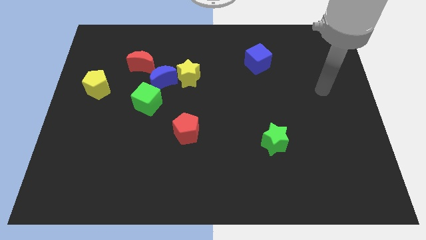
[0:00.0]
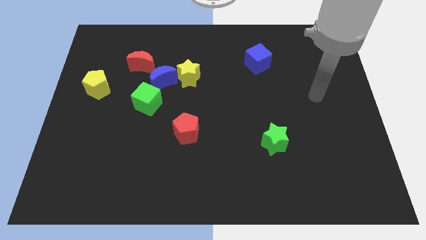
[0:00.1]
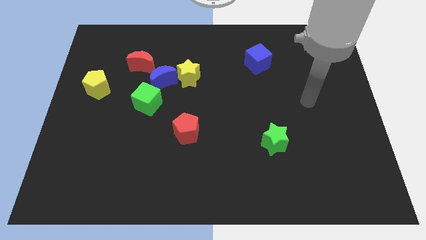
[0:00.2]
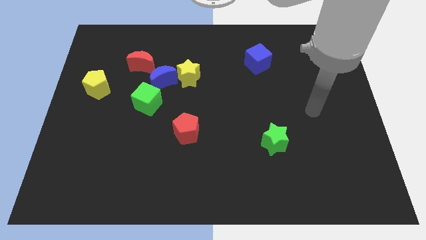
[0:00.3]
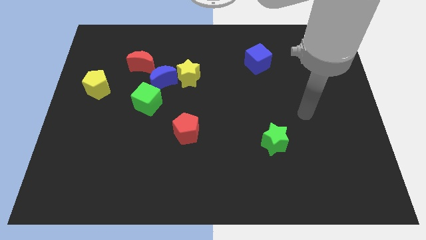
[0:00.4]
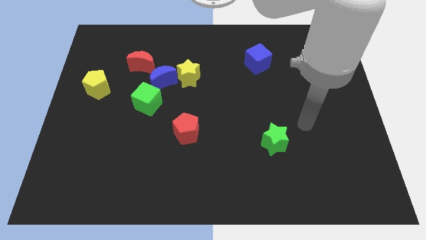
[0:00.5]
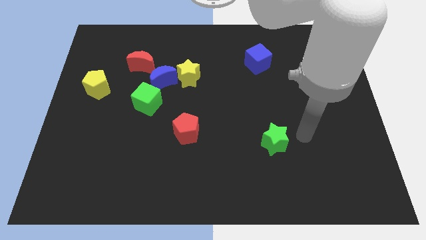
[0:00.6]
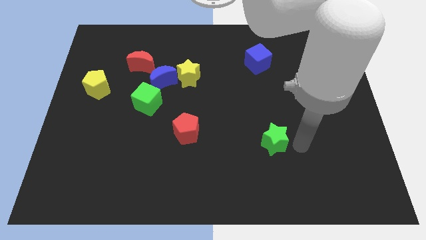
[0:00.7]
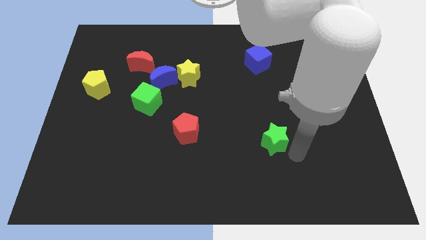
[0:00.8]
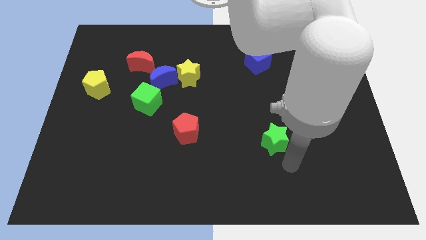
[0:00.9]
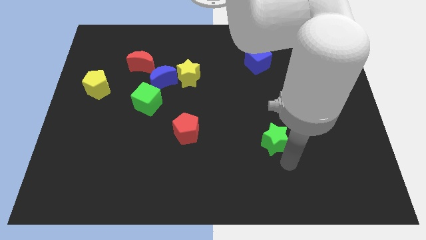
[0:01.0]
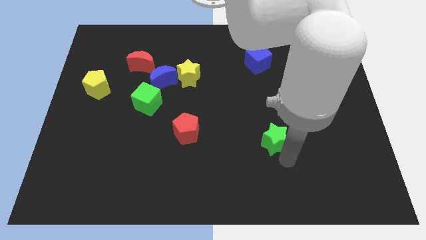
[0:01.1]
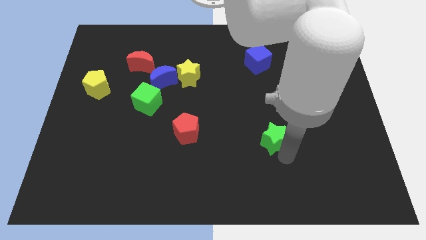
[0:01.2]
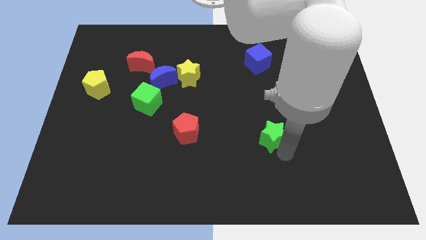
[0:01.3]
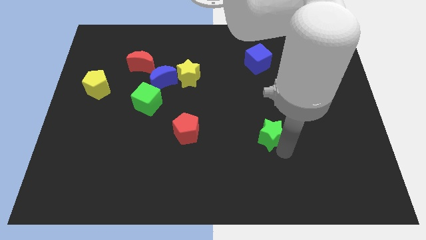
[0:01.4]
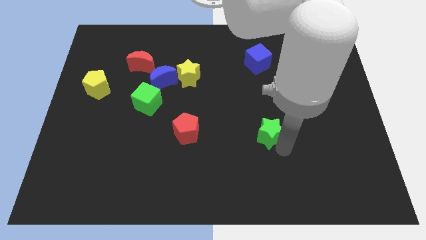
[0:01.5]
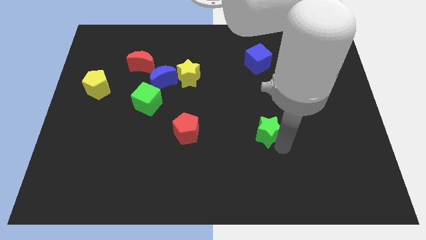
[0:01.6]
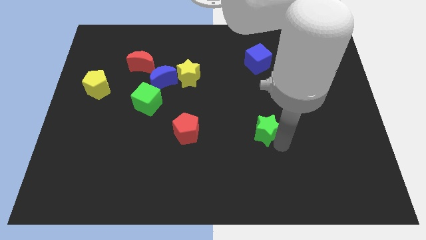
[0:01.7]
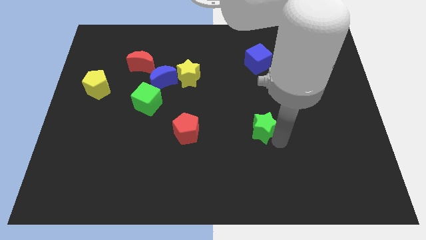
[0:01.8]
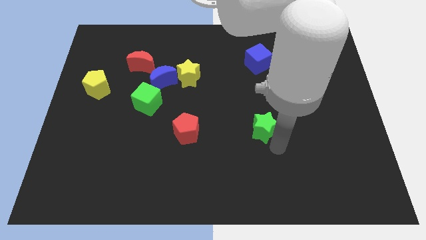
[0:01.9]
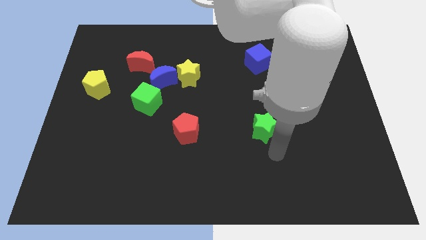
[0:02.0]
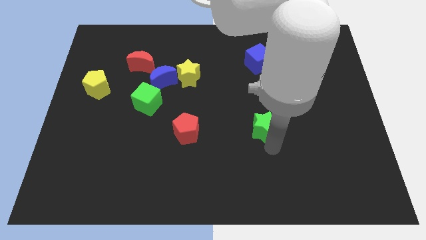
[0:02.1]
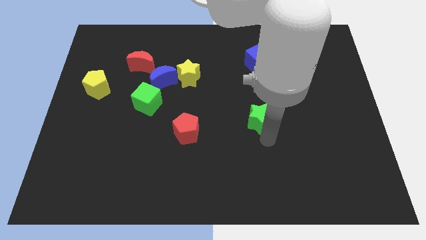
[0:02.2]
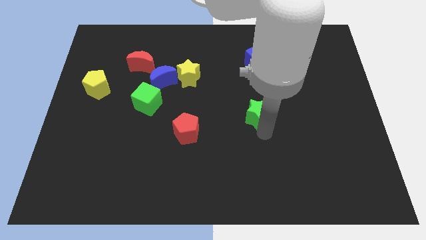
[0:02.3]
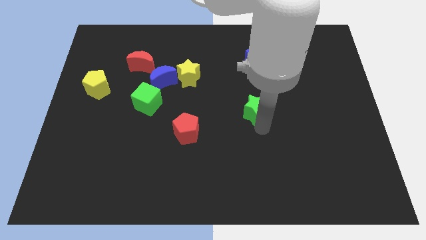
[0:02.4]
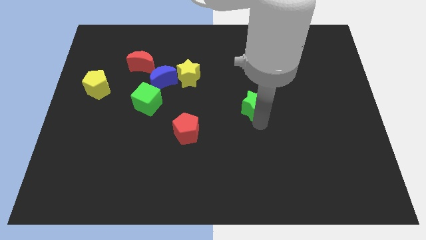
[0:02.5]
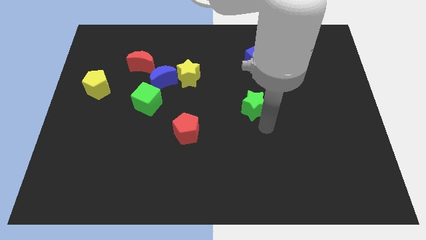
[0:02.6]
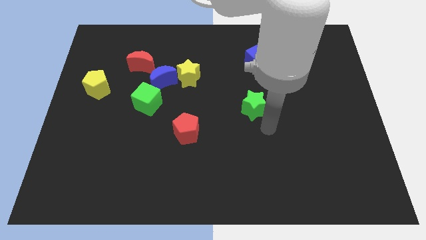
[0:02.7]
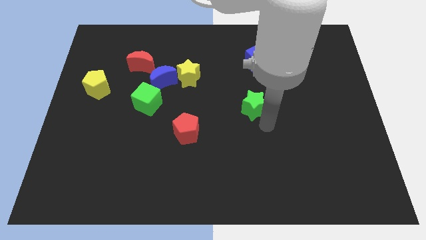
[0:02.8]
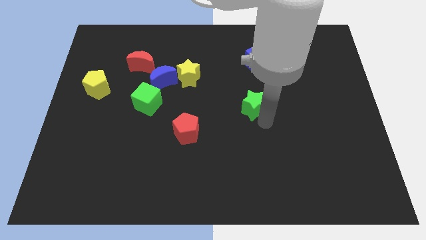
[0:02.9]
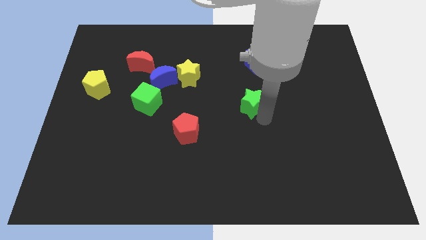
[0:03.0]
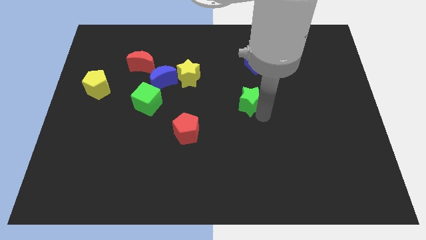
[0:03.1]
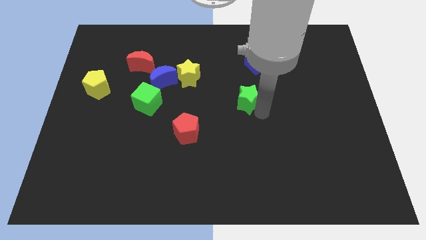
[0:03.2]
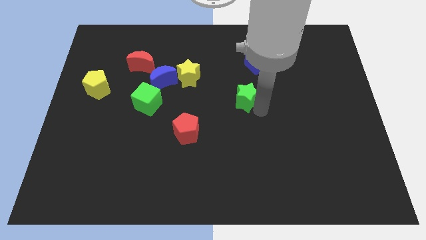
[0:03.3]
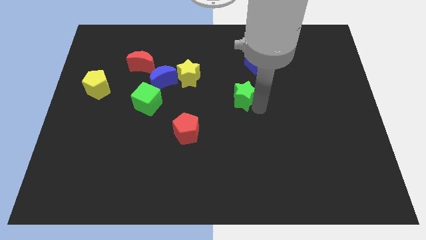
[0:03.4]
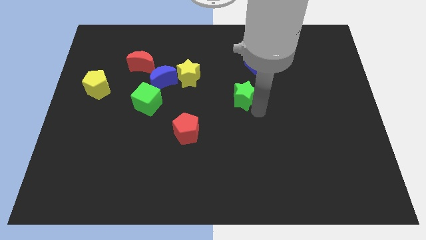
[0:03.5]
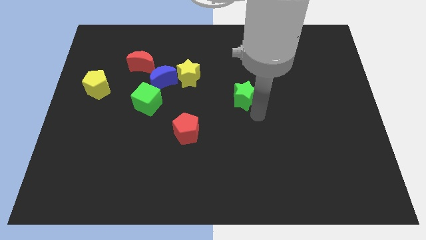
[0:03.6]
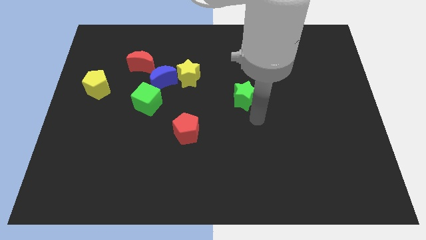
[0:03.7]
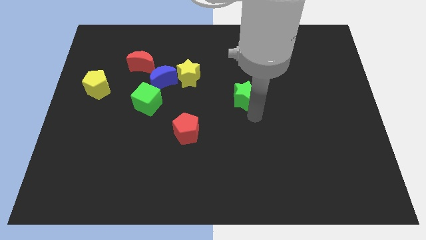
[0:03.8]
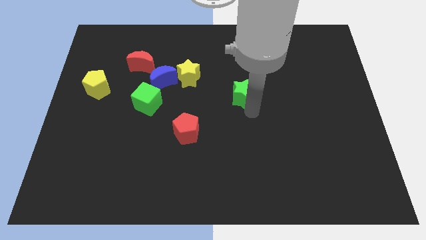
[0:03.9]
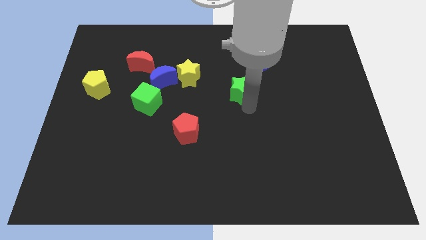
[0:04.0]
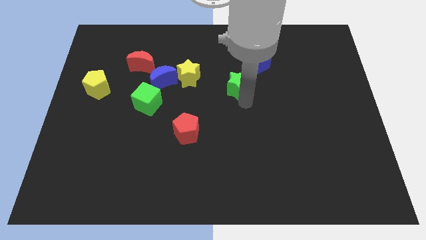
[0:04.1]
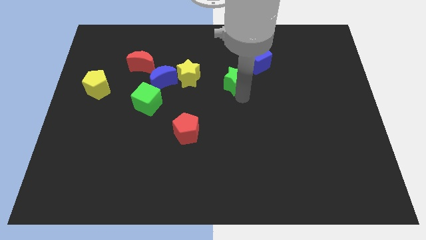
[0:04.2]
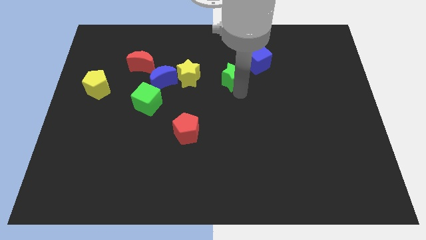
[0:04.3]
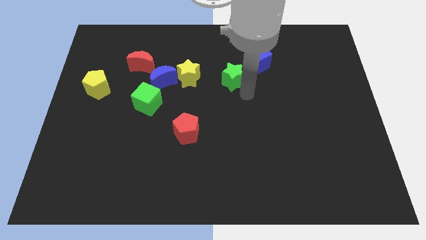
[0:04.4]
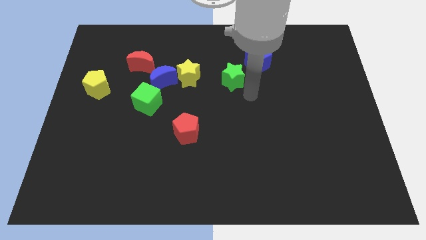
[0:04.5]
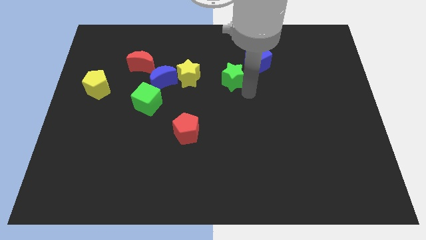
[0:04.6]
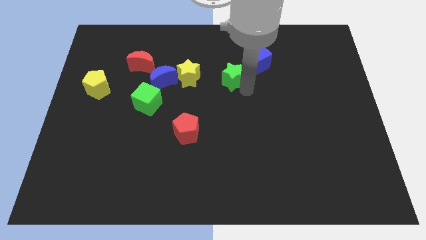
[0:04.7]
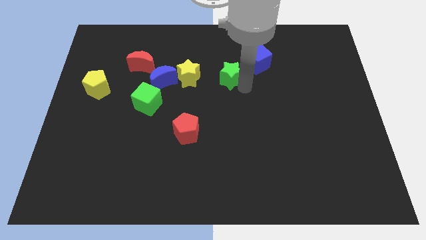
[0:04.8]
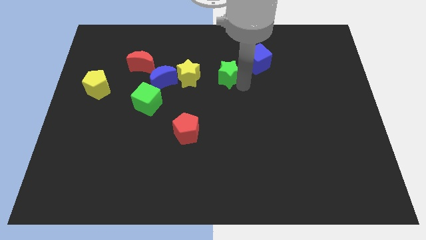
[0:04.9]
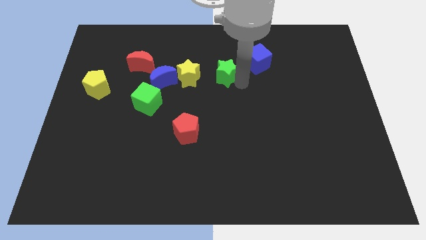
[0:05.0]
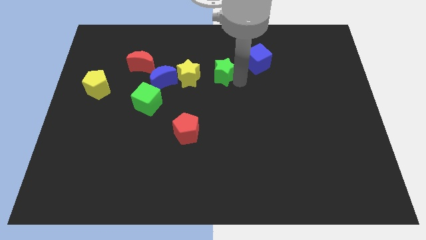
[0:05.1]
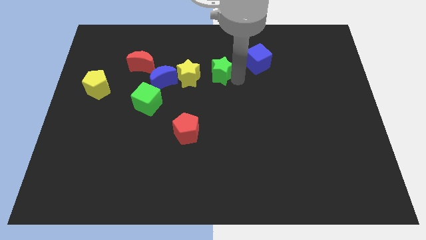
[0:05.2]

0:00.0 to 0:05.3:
move the green star diagonally up and to the right of the yellow star

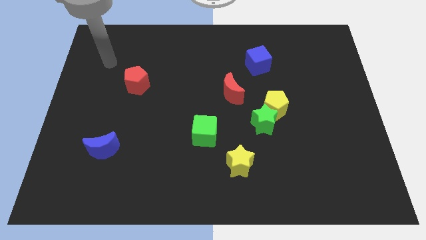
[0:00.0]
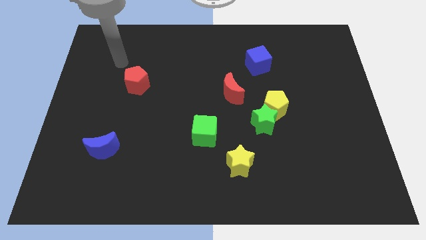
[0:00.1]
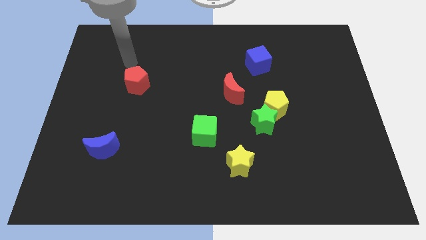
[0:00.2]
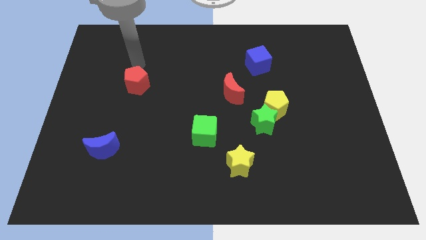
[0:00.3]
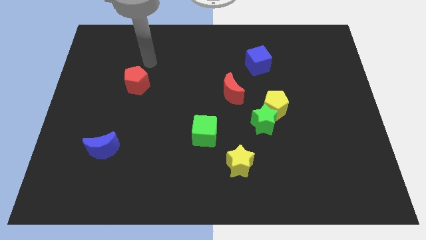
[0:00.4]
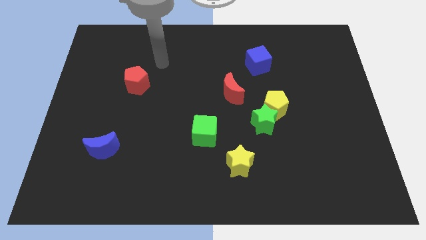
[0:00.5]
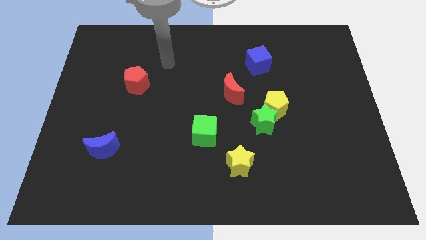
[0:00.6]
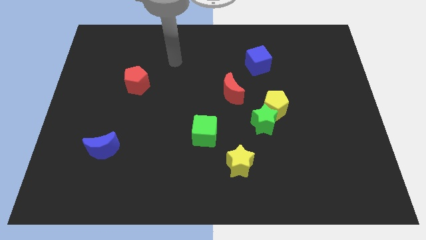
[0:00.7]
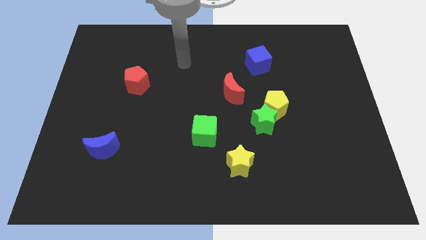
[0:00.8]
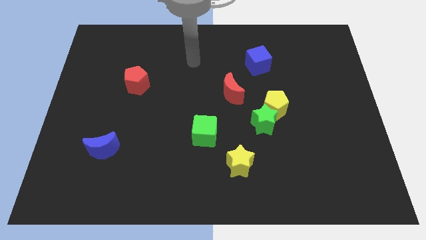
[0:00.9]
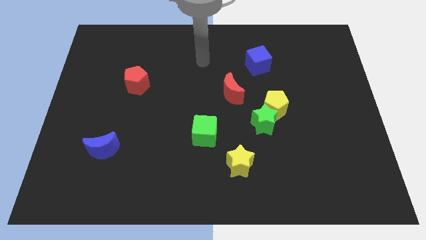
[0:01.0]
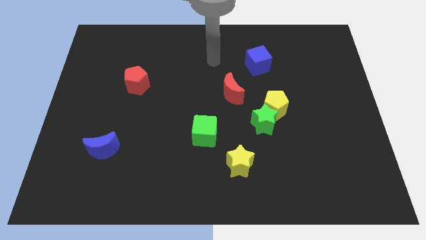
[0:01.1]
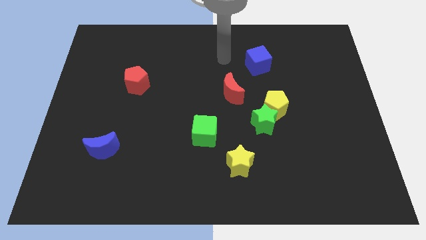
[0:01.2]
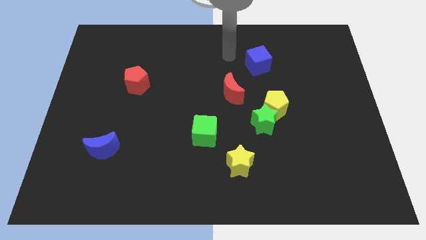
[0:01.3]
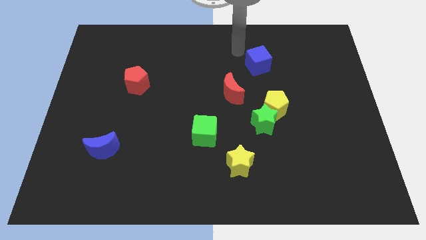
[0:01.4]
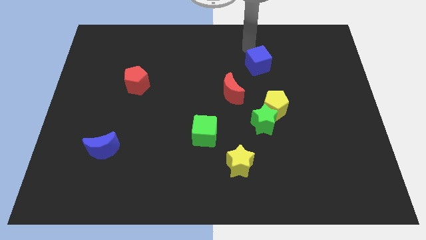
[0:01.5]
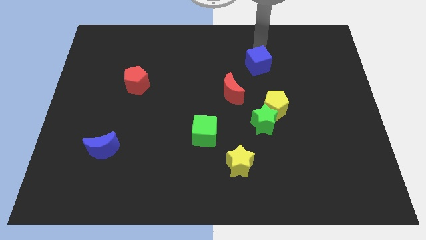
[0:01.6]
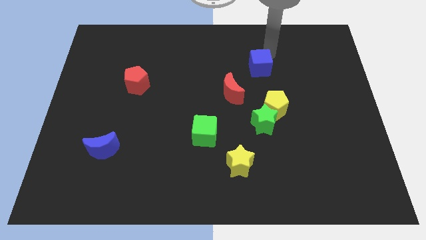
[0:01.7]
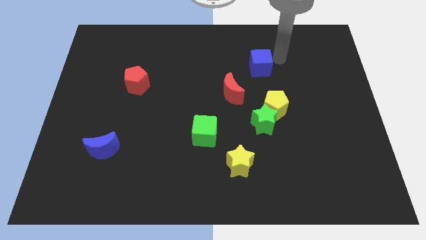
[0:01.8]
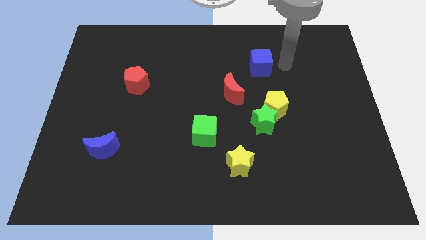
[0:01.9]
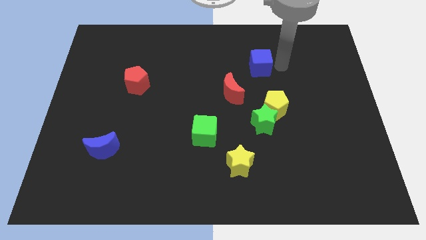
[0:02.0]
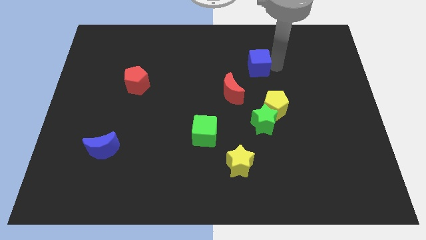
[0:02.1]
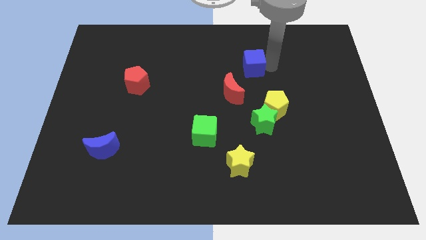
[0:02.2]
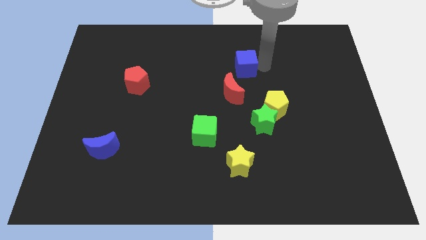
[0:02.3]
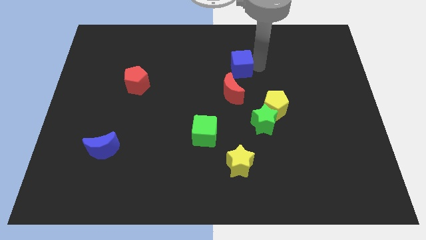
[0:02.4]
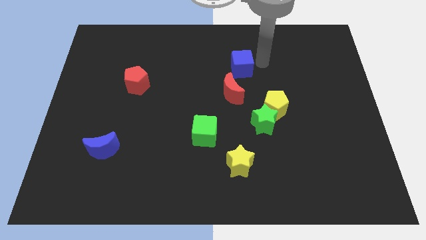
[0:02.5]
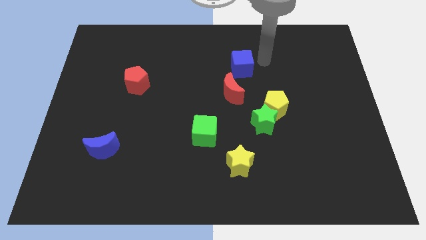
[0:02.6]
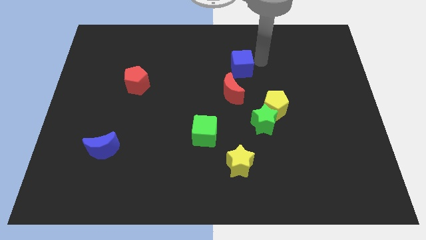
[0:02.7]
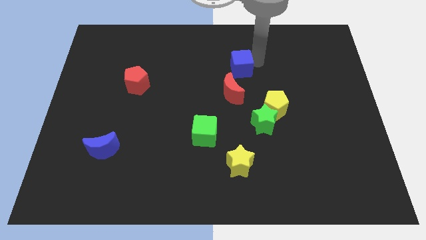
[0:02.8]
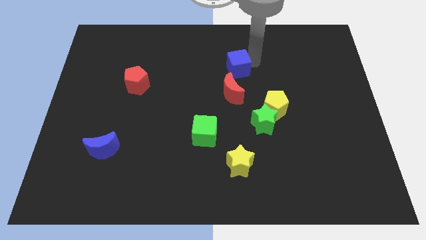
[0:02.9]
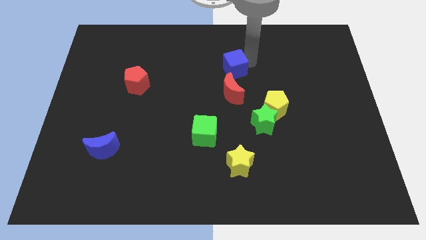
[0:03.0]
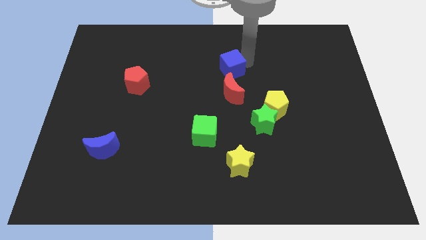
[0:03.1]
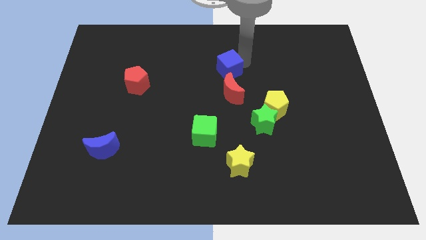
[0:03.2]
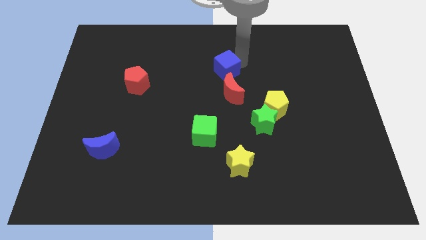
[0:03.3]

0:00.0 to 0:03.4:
put the blue cube to the top left of the red moon
